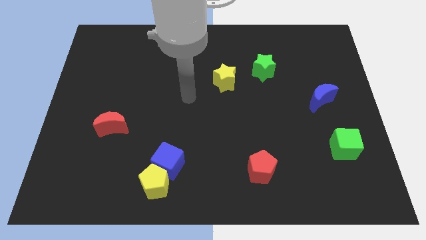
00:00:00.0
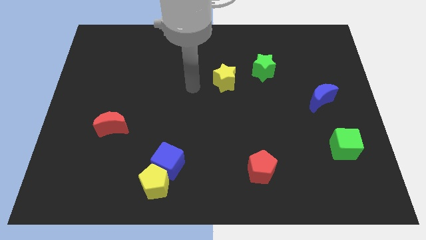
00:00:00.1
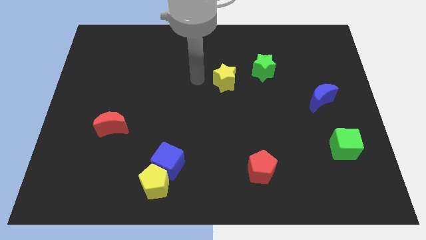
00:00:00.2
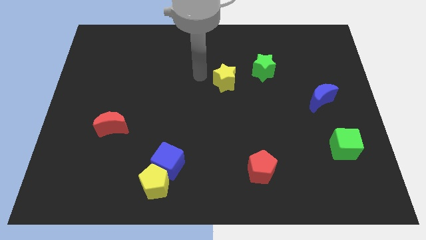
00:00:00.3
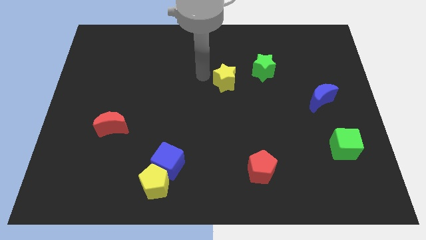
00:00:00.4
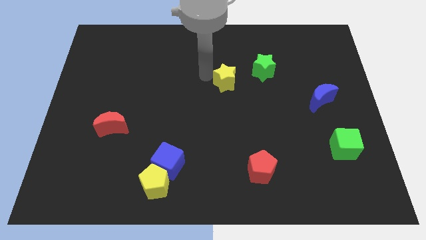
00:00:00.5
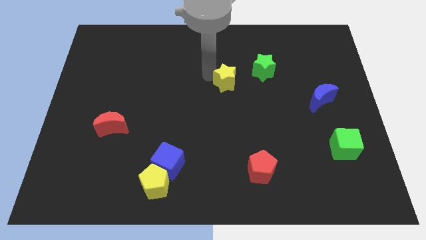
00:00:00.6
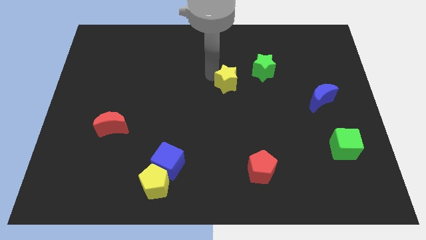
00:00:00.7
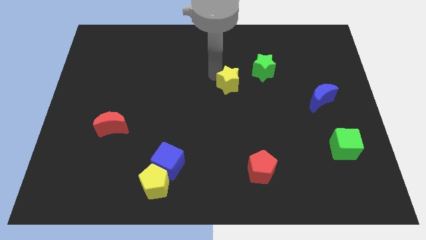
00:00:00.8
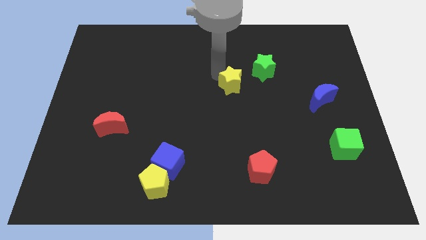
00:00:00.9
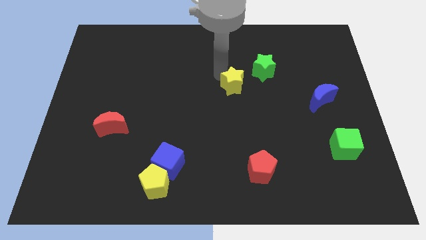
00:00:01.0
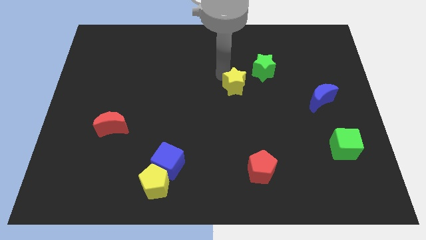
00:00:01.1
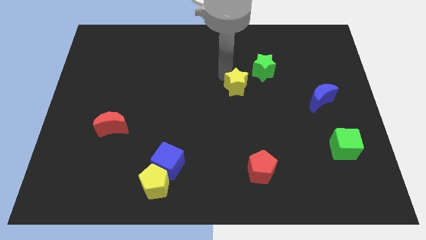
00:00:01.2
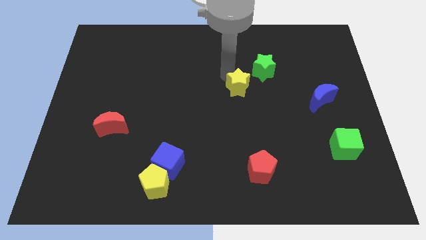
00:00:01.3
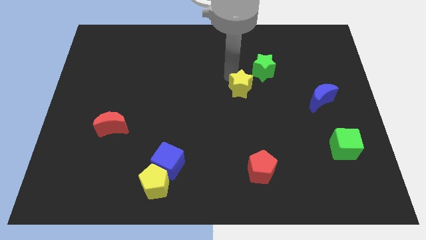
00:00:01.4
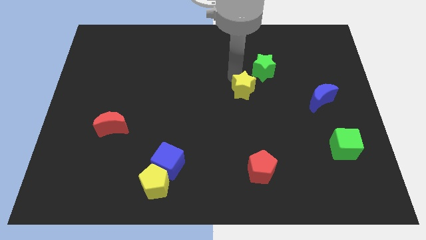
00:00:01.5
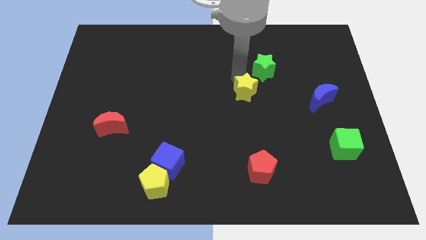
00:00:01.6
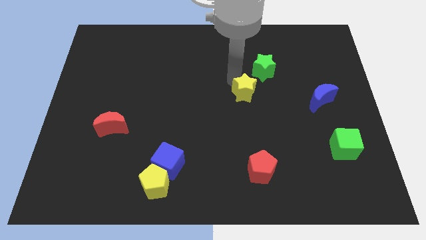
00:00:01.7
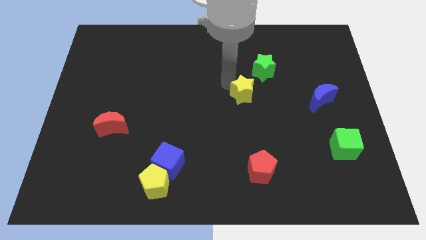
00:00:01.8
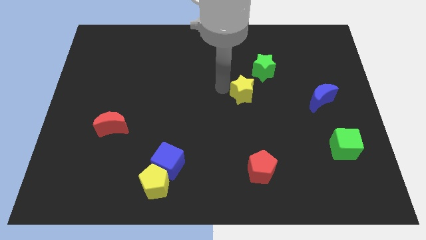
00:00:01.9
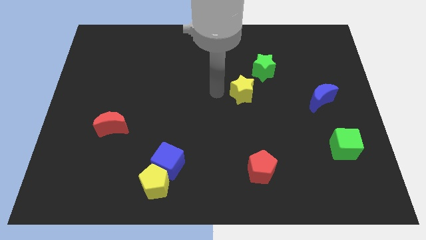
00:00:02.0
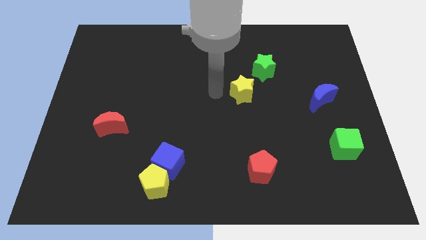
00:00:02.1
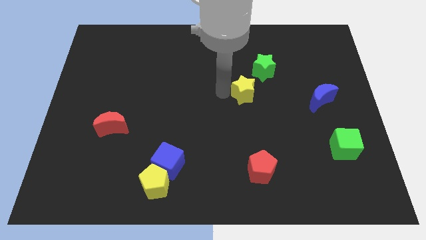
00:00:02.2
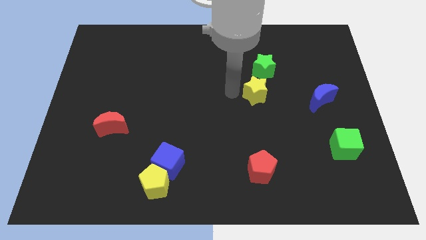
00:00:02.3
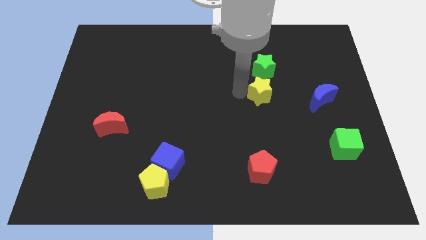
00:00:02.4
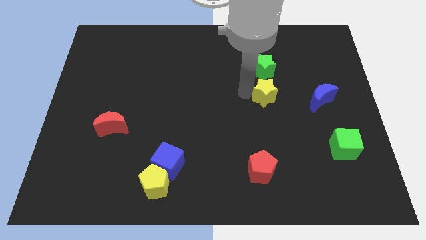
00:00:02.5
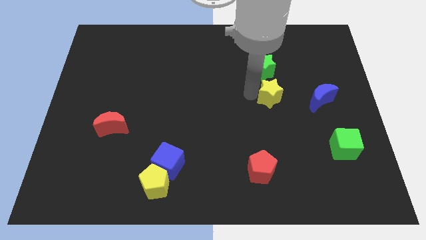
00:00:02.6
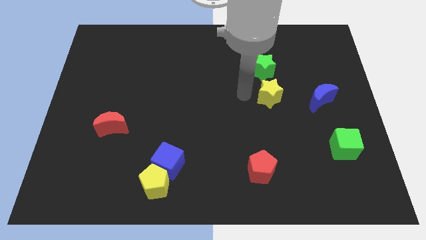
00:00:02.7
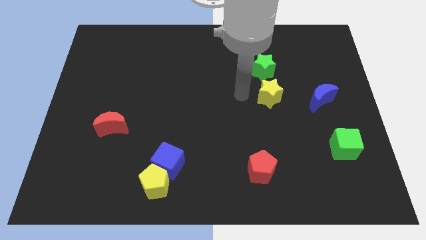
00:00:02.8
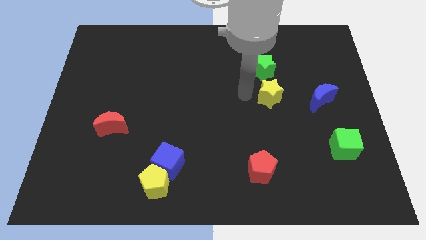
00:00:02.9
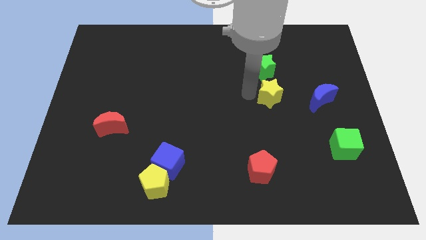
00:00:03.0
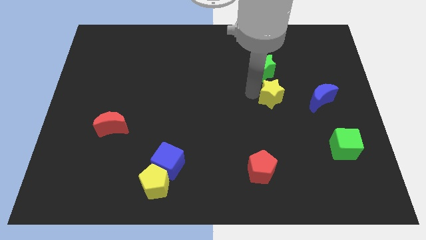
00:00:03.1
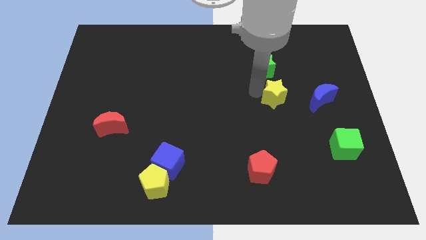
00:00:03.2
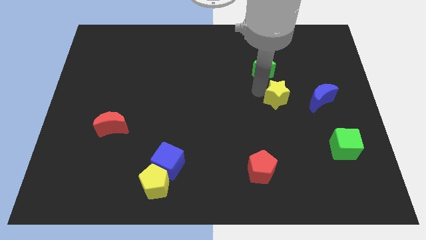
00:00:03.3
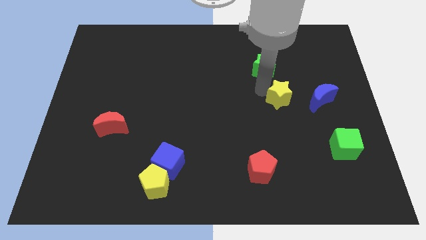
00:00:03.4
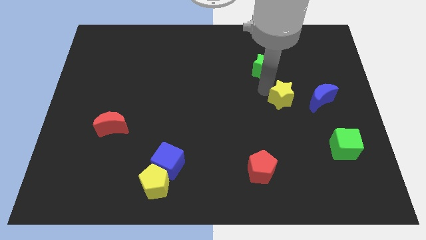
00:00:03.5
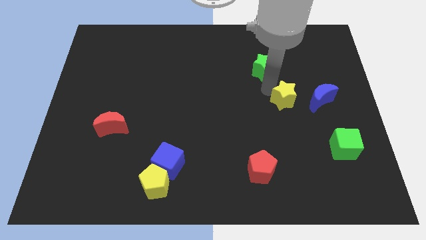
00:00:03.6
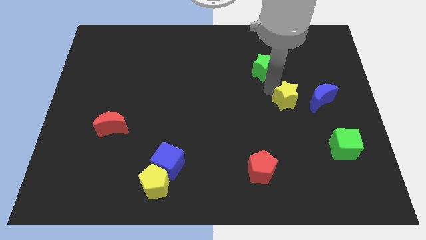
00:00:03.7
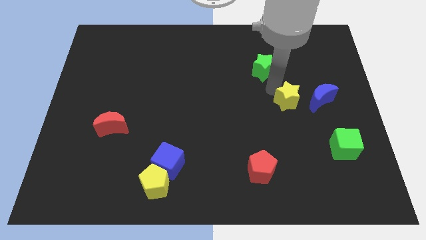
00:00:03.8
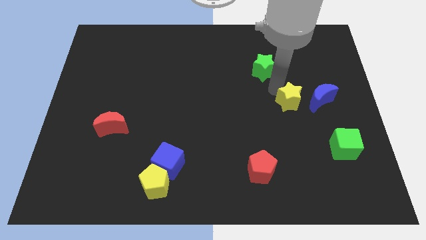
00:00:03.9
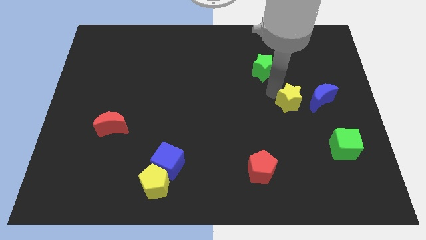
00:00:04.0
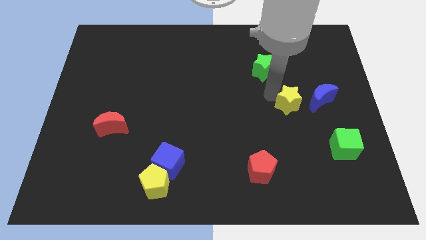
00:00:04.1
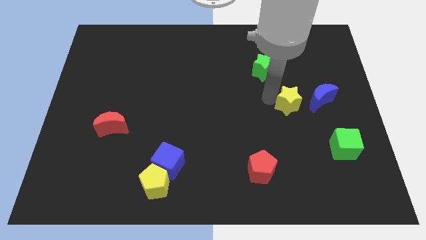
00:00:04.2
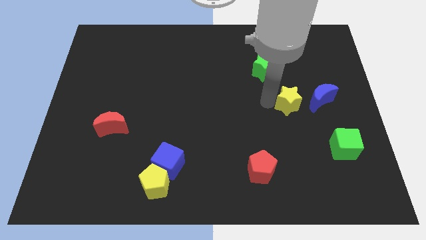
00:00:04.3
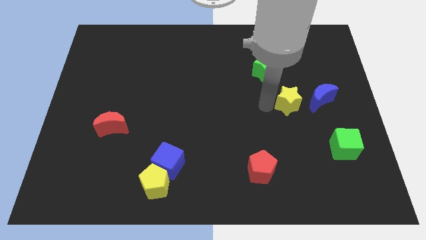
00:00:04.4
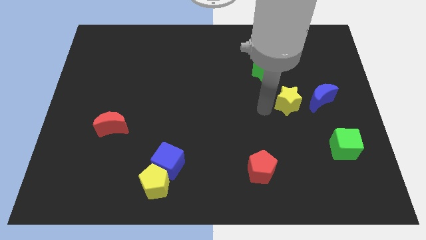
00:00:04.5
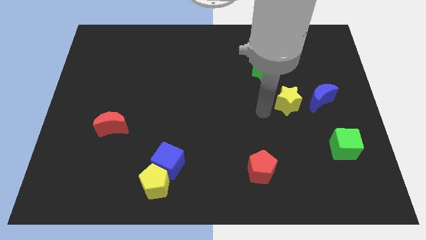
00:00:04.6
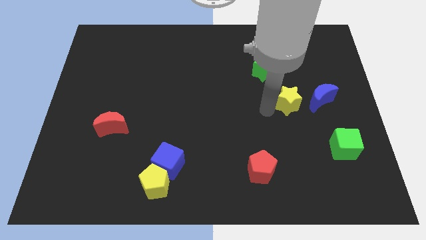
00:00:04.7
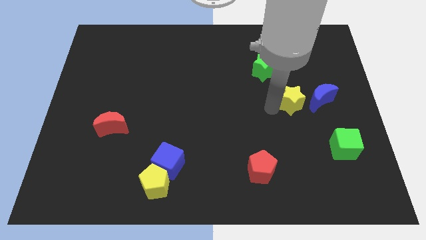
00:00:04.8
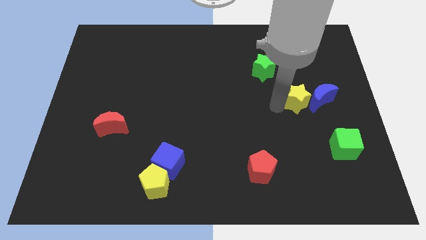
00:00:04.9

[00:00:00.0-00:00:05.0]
slide the yellow star to the blue moon

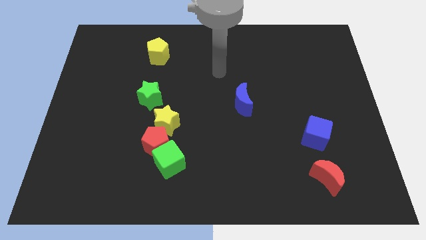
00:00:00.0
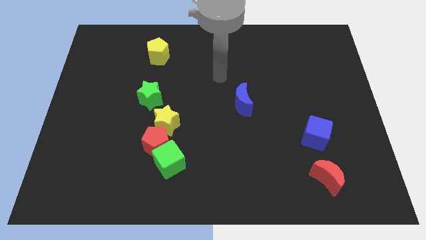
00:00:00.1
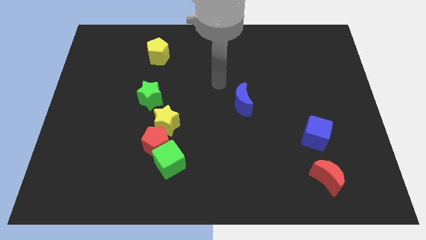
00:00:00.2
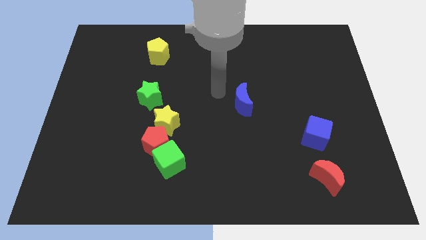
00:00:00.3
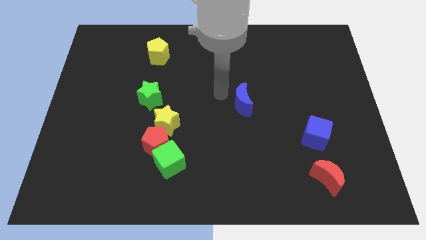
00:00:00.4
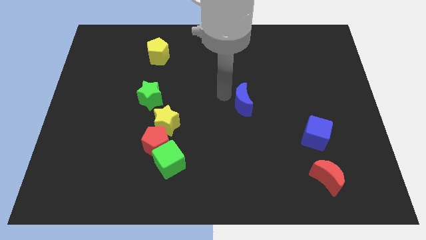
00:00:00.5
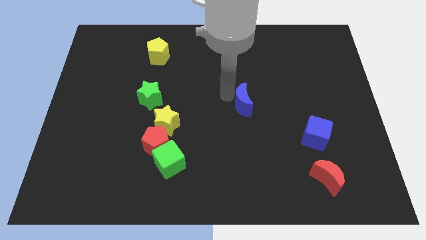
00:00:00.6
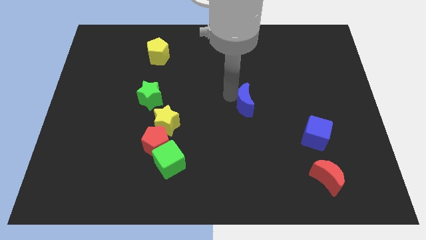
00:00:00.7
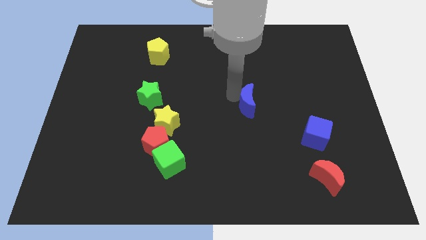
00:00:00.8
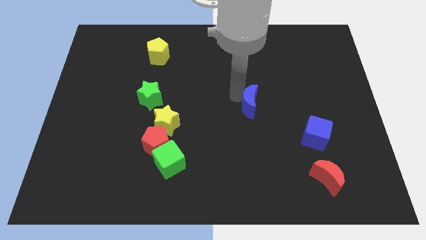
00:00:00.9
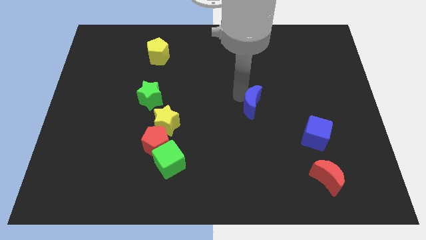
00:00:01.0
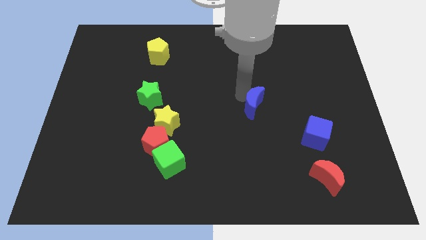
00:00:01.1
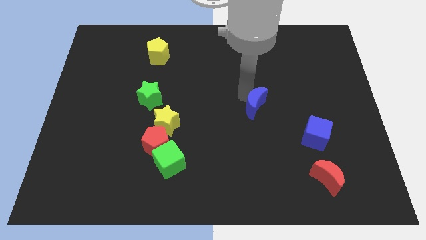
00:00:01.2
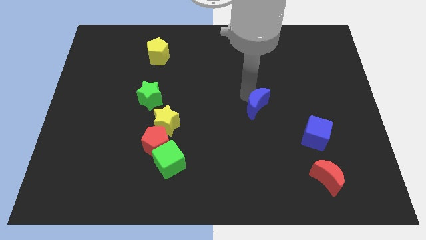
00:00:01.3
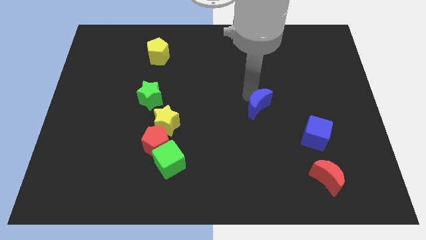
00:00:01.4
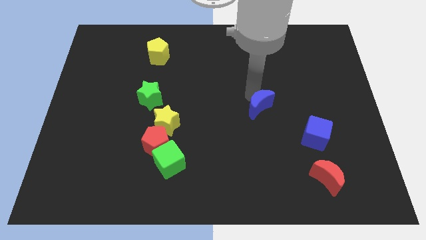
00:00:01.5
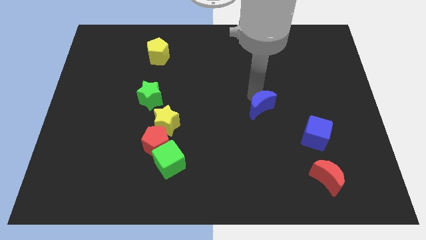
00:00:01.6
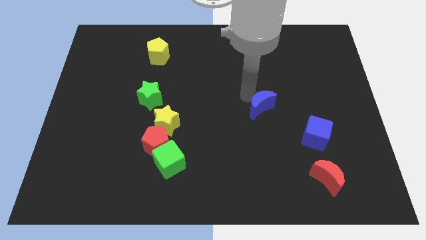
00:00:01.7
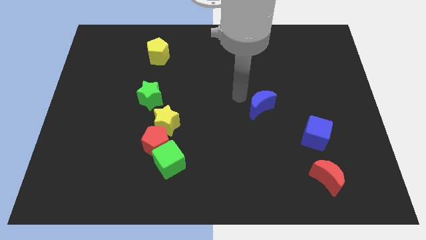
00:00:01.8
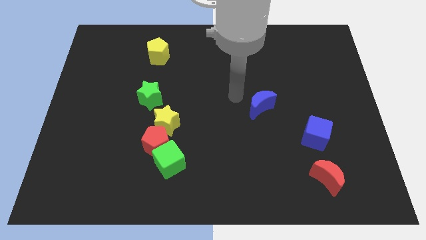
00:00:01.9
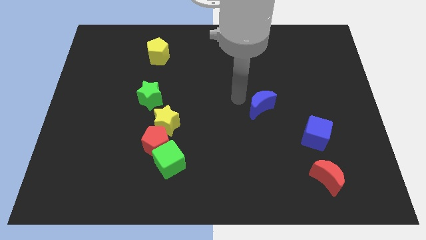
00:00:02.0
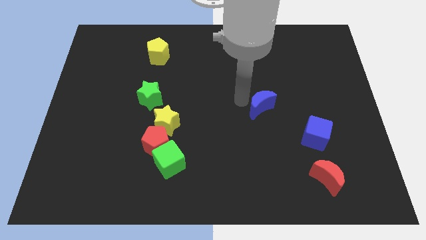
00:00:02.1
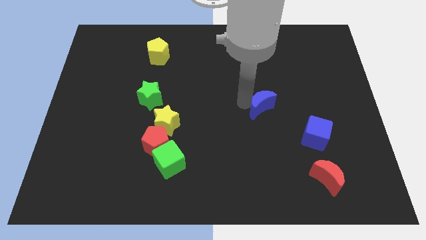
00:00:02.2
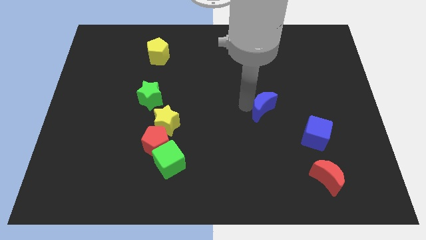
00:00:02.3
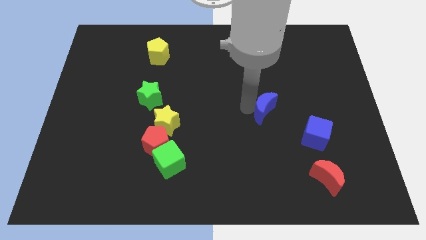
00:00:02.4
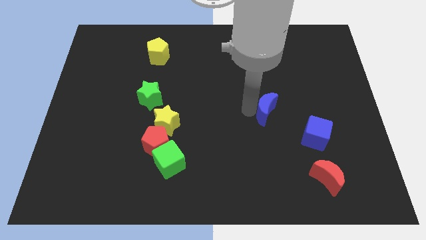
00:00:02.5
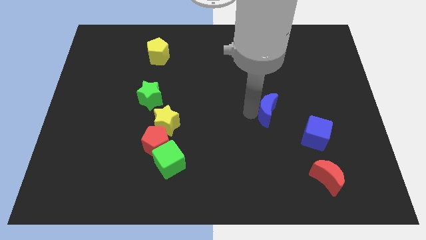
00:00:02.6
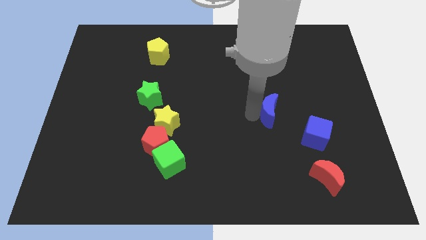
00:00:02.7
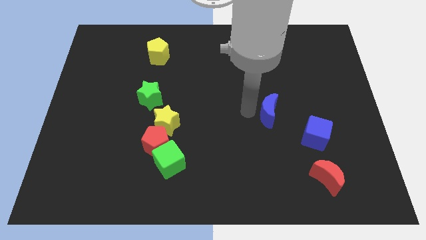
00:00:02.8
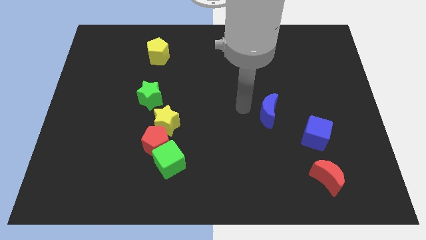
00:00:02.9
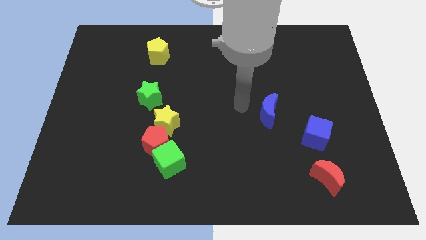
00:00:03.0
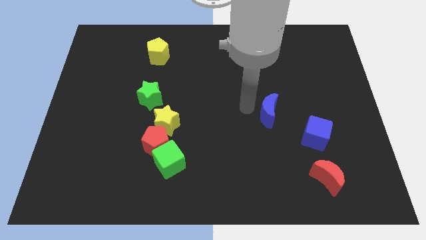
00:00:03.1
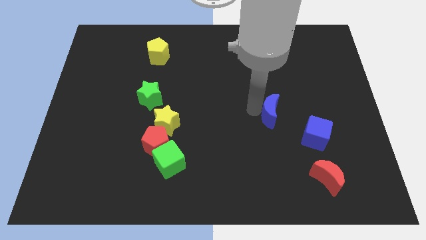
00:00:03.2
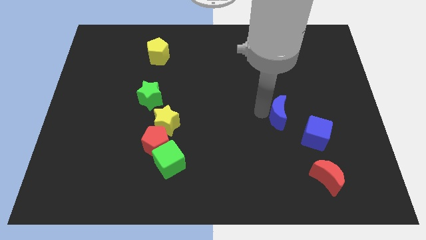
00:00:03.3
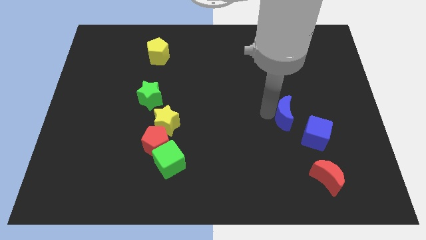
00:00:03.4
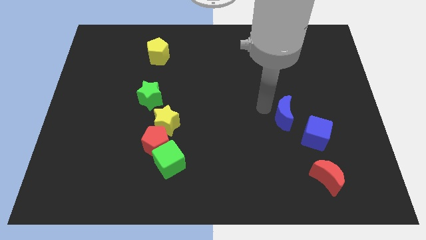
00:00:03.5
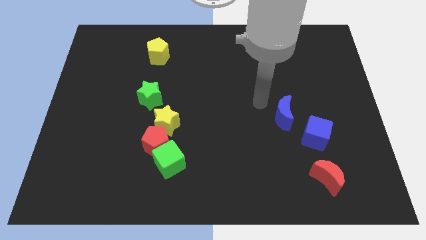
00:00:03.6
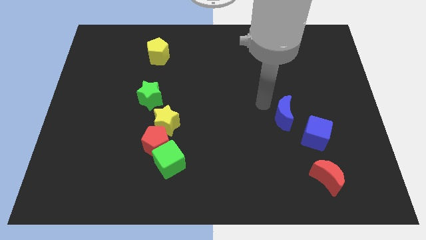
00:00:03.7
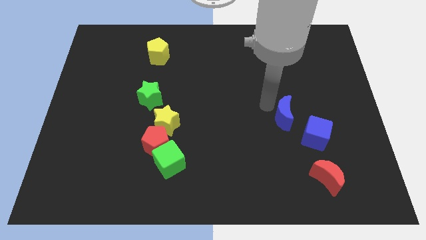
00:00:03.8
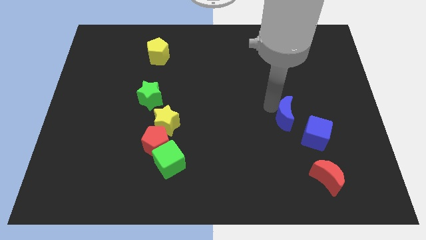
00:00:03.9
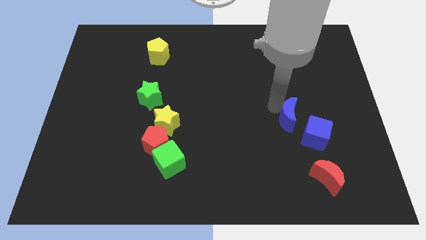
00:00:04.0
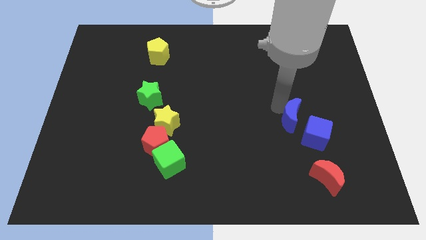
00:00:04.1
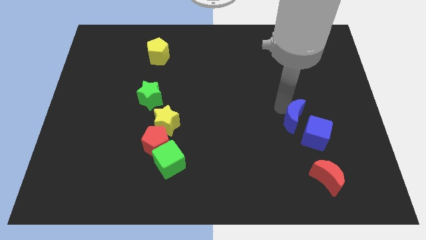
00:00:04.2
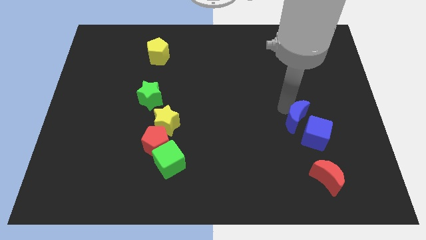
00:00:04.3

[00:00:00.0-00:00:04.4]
slide the blue moon to the blue cube
